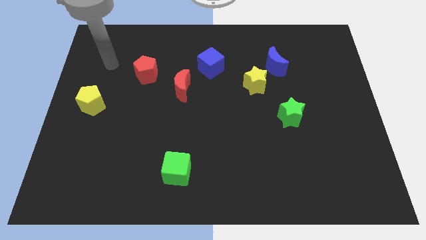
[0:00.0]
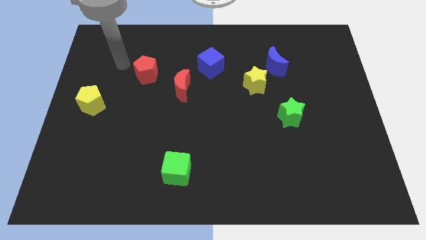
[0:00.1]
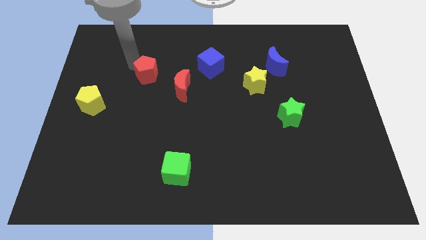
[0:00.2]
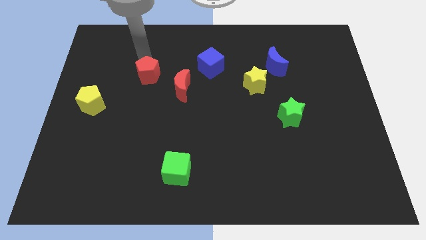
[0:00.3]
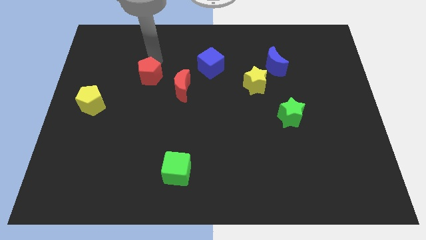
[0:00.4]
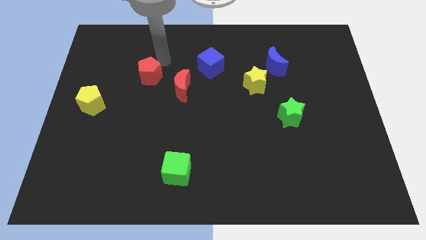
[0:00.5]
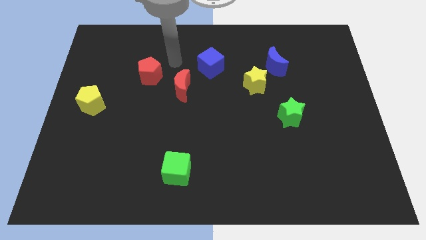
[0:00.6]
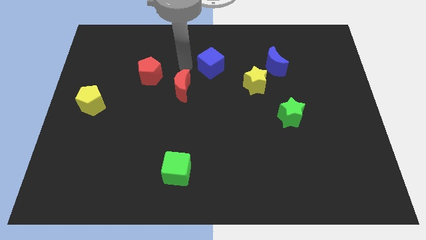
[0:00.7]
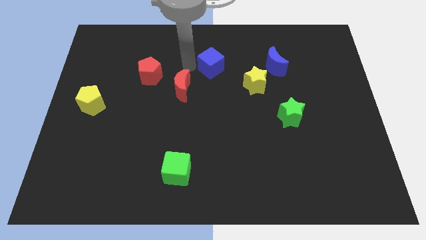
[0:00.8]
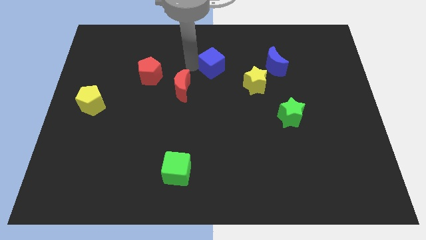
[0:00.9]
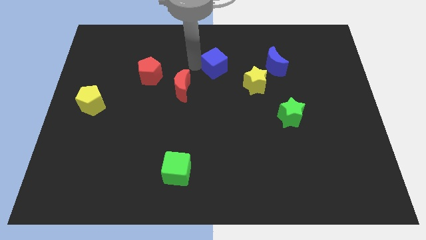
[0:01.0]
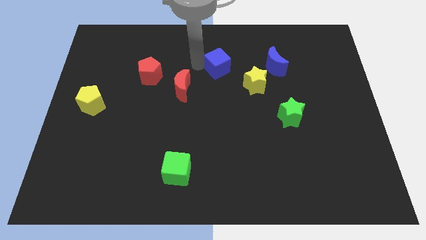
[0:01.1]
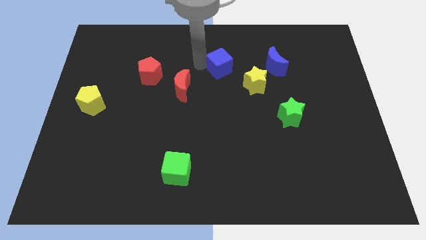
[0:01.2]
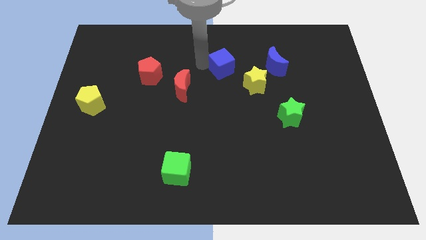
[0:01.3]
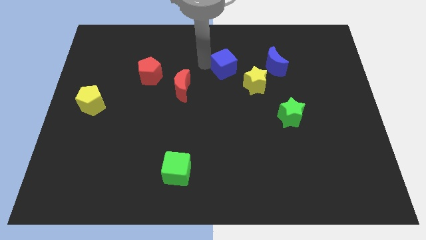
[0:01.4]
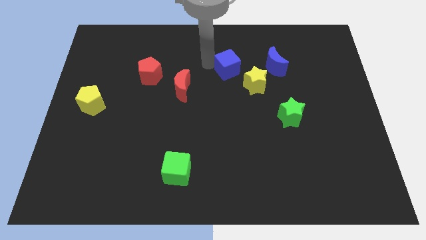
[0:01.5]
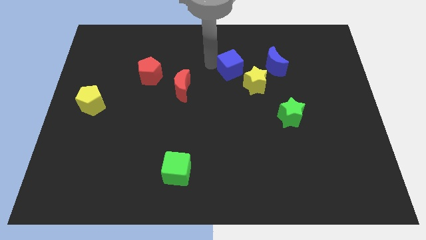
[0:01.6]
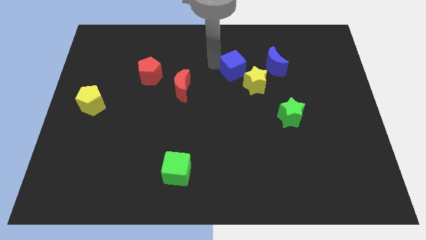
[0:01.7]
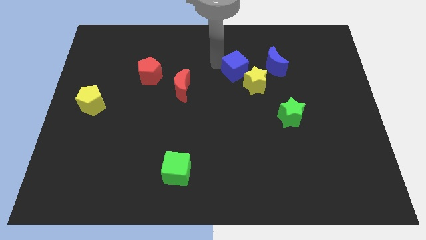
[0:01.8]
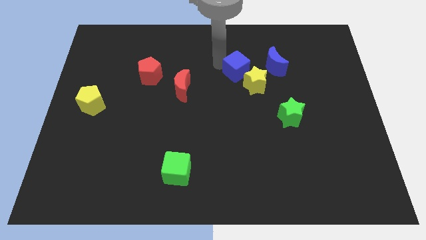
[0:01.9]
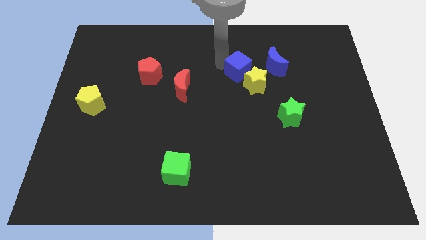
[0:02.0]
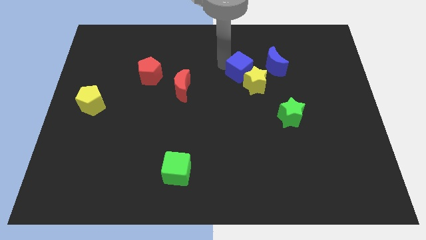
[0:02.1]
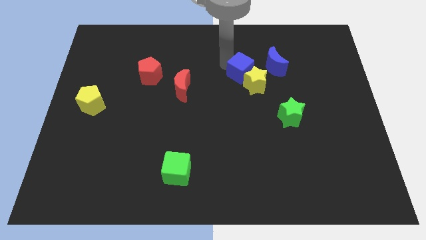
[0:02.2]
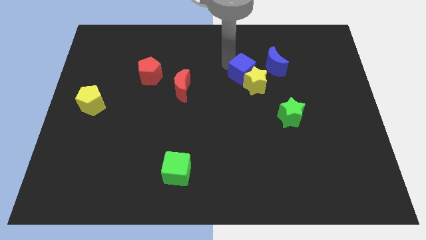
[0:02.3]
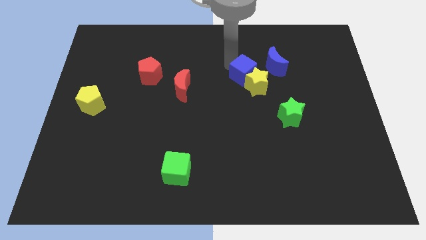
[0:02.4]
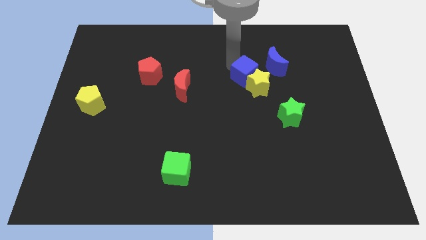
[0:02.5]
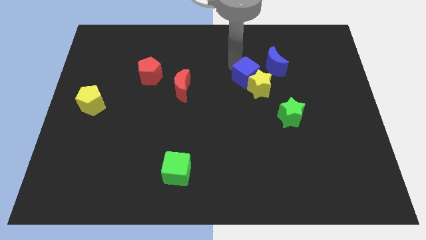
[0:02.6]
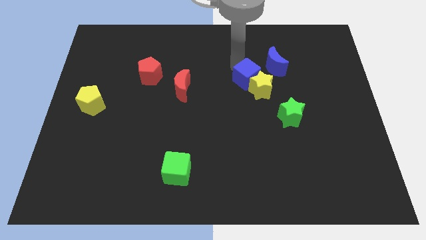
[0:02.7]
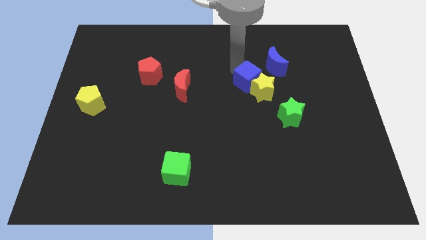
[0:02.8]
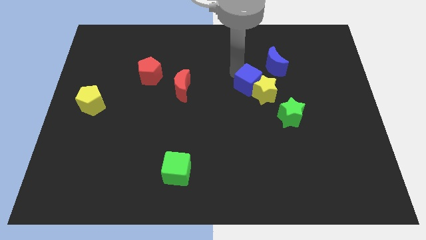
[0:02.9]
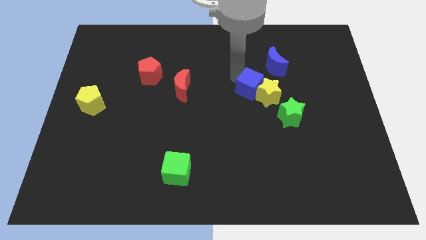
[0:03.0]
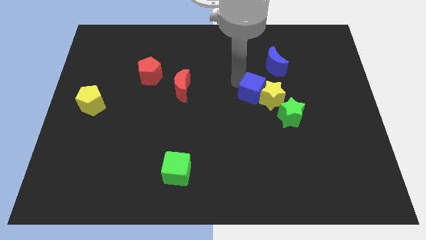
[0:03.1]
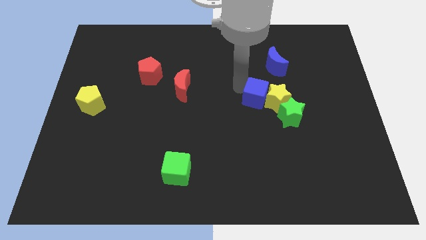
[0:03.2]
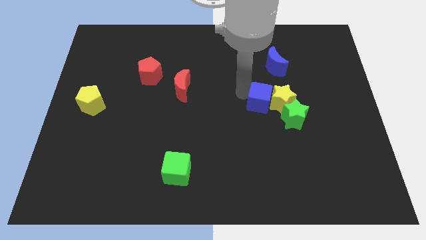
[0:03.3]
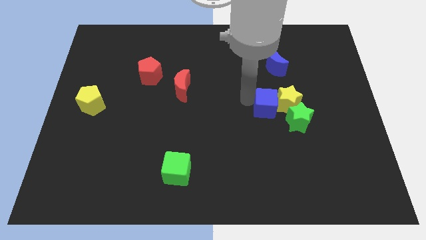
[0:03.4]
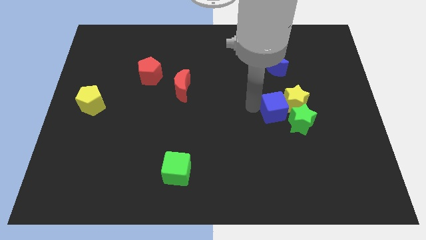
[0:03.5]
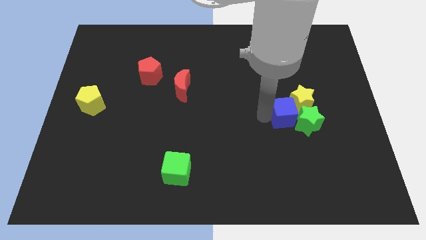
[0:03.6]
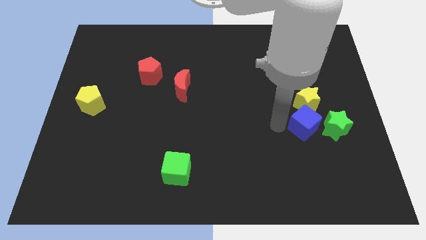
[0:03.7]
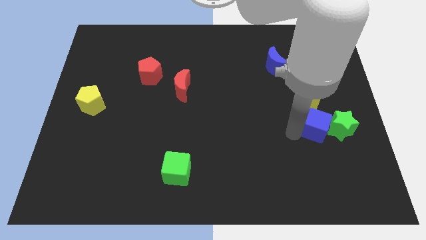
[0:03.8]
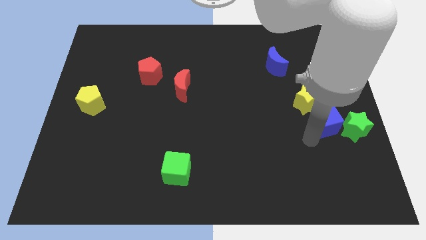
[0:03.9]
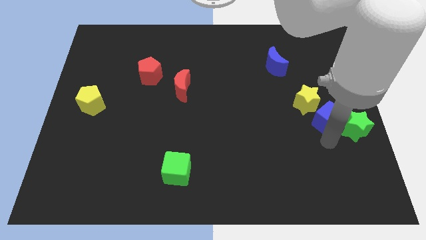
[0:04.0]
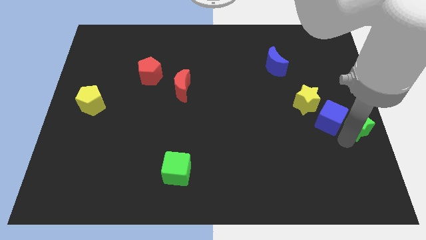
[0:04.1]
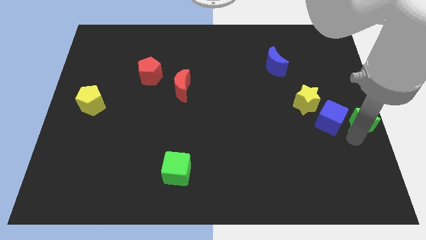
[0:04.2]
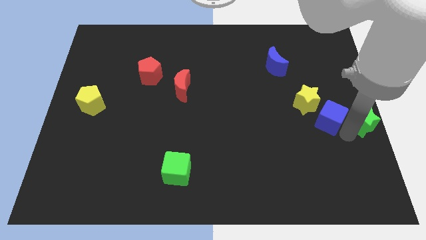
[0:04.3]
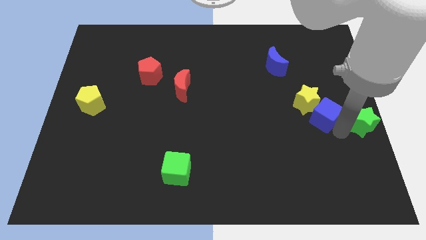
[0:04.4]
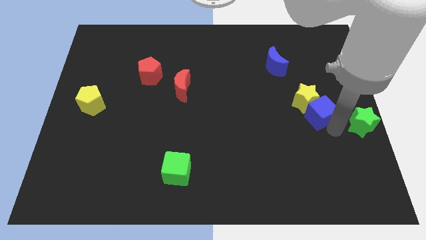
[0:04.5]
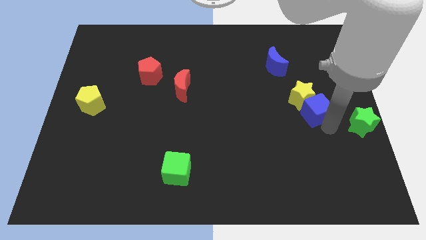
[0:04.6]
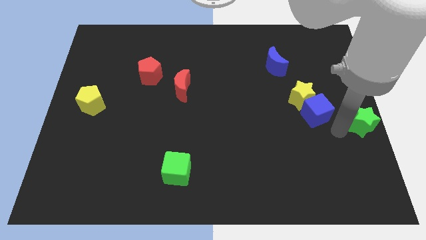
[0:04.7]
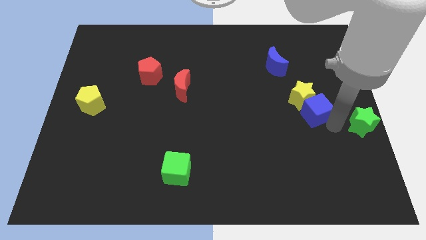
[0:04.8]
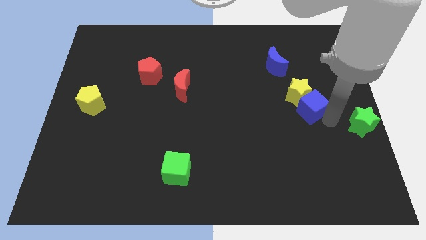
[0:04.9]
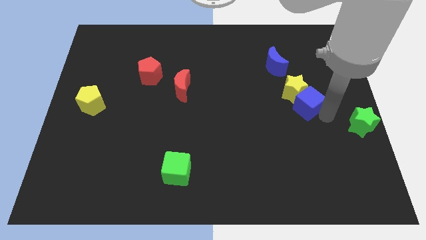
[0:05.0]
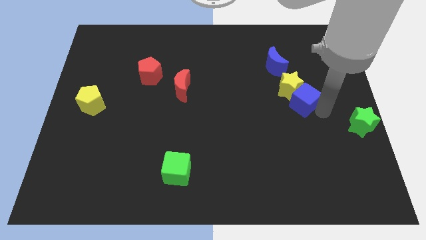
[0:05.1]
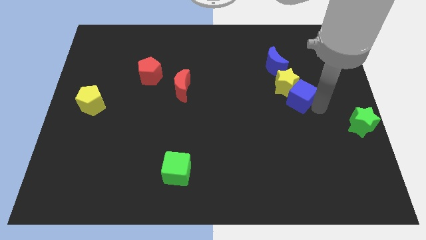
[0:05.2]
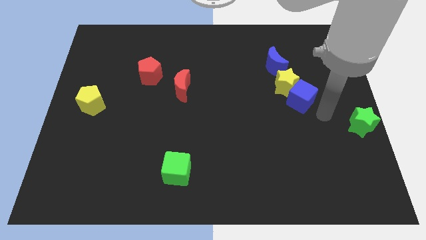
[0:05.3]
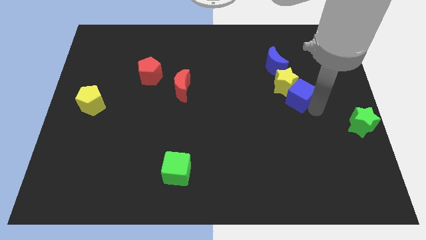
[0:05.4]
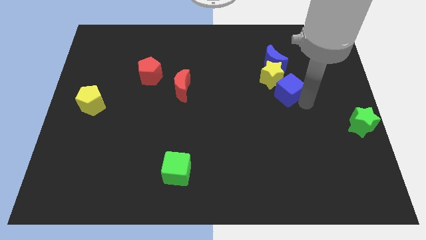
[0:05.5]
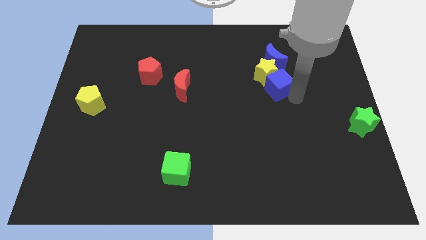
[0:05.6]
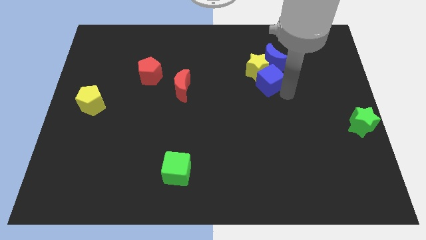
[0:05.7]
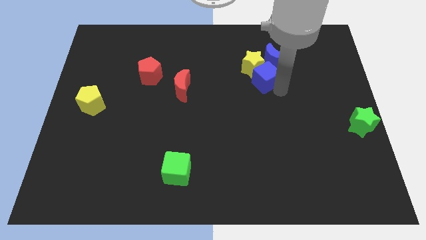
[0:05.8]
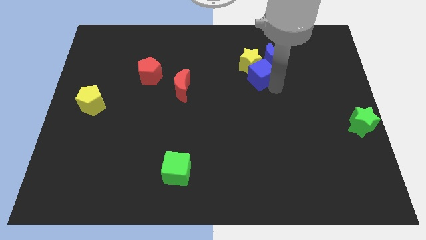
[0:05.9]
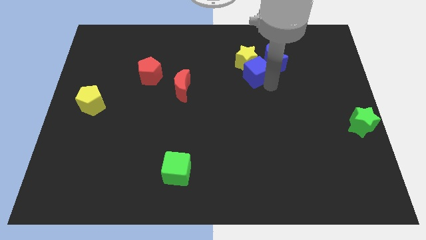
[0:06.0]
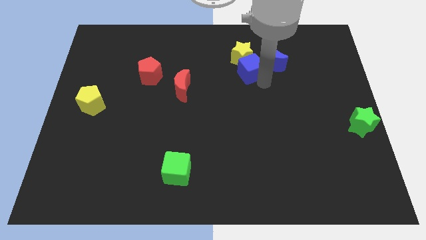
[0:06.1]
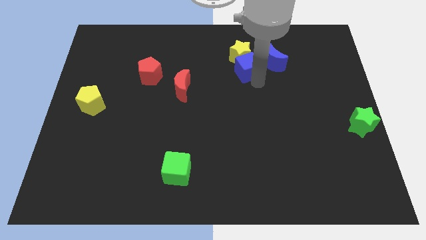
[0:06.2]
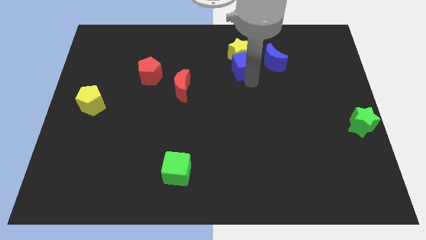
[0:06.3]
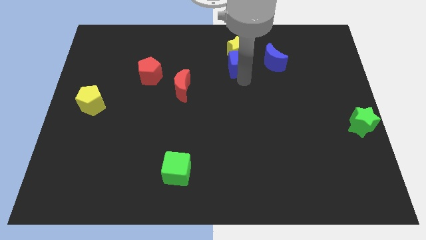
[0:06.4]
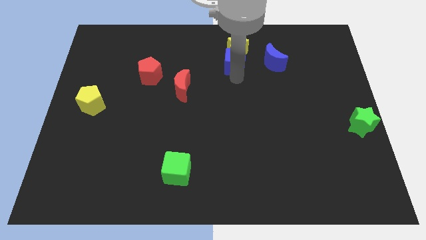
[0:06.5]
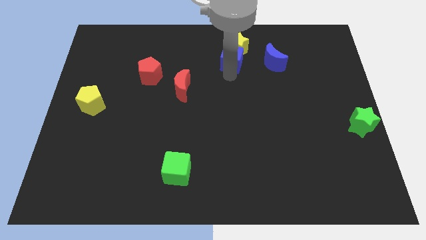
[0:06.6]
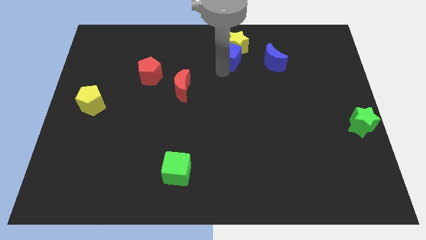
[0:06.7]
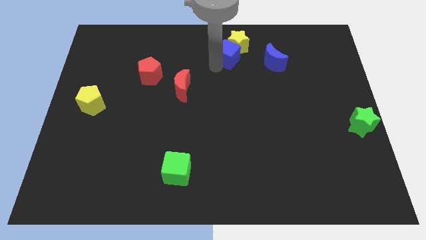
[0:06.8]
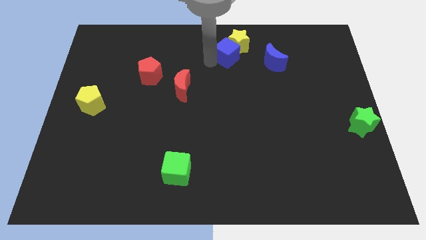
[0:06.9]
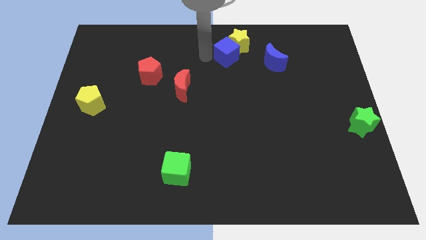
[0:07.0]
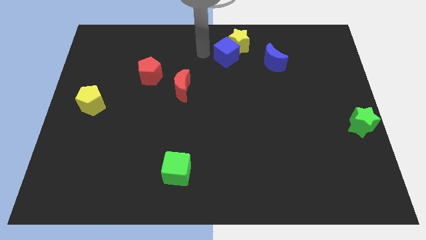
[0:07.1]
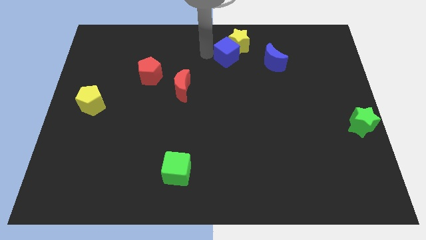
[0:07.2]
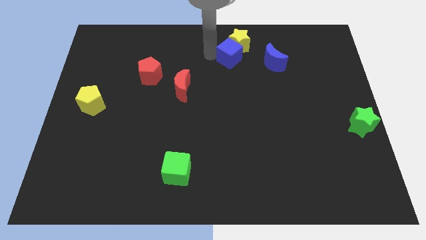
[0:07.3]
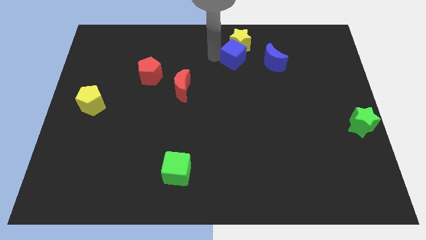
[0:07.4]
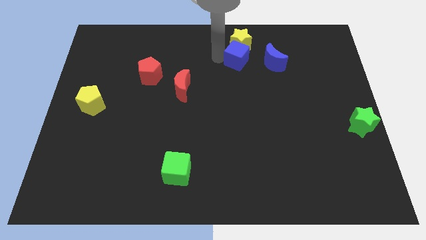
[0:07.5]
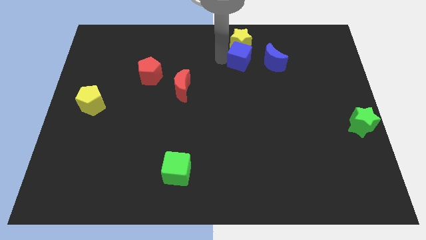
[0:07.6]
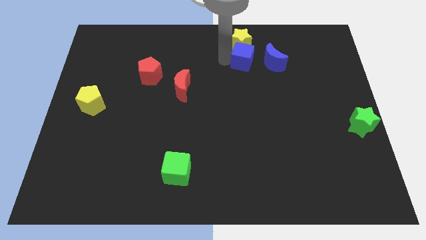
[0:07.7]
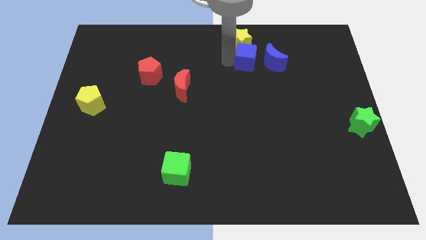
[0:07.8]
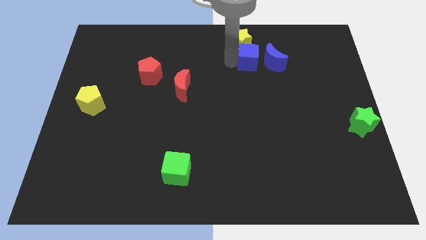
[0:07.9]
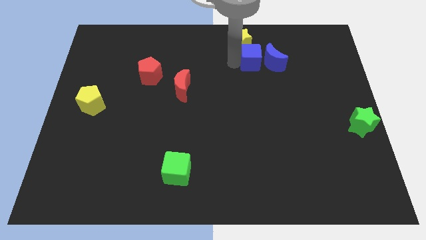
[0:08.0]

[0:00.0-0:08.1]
put the blue cube close to the blue moon
